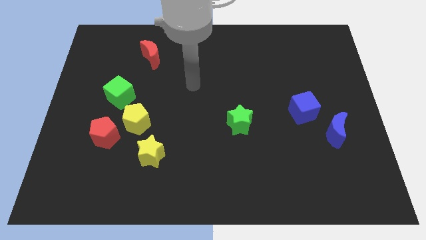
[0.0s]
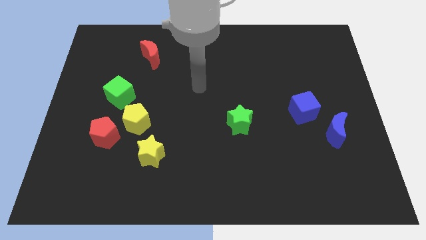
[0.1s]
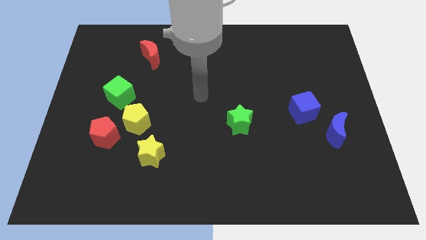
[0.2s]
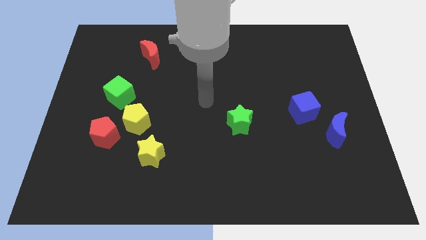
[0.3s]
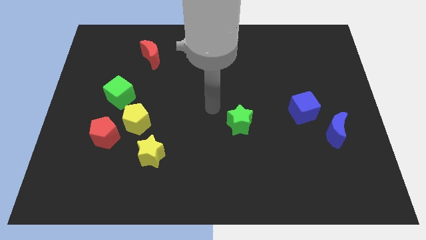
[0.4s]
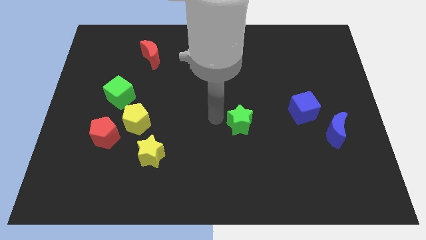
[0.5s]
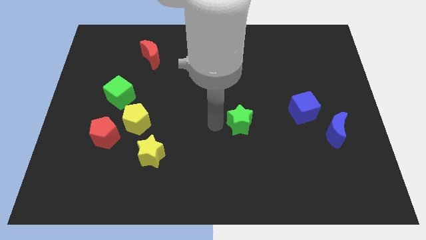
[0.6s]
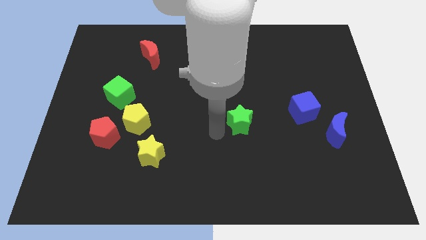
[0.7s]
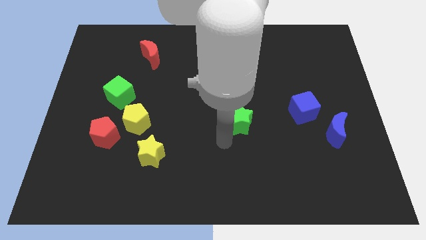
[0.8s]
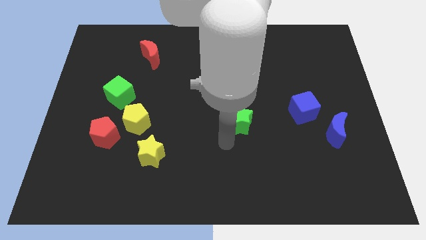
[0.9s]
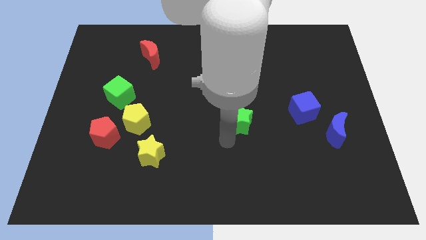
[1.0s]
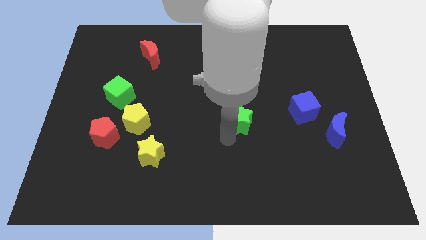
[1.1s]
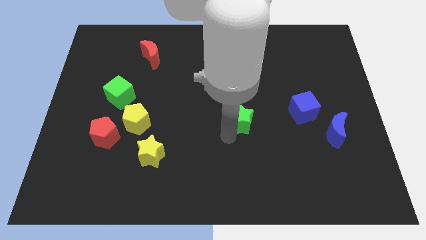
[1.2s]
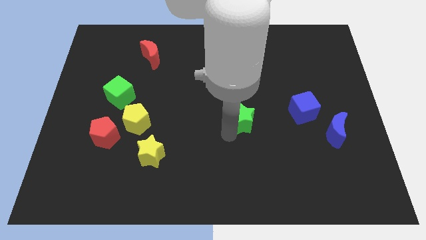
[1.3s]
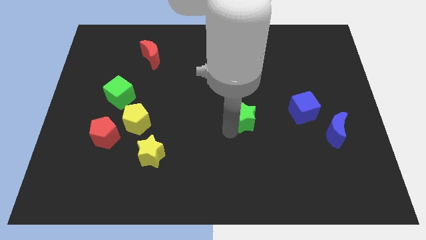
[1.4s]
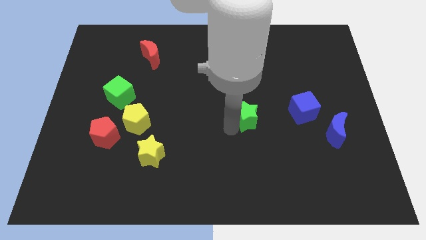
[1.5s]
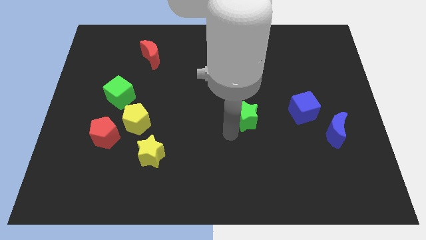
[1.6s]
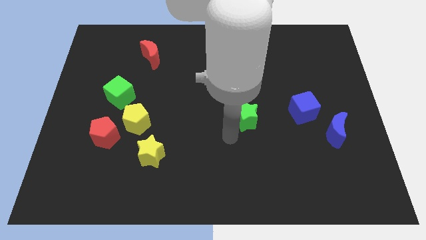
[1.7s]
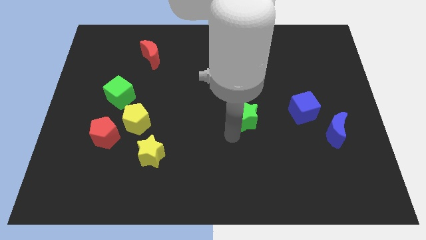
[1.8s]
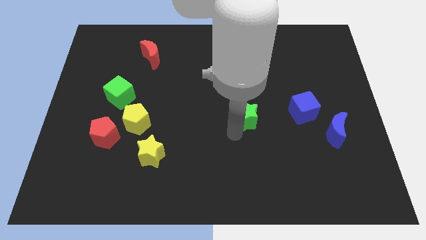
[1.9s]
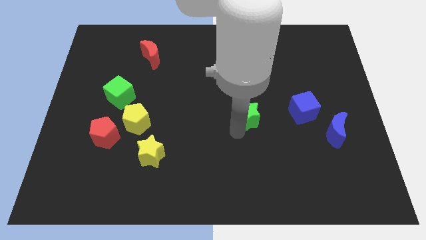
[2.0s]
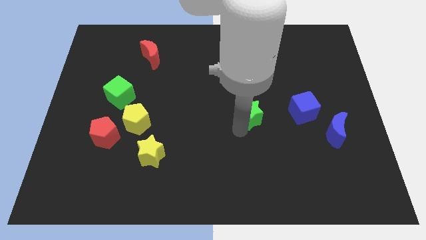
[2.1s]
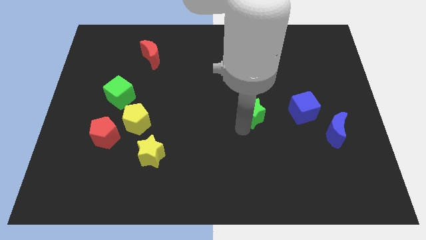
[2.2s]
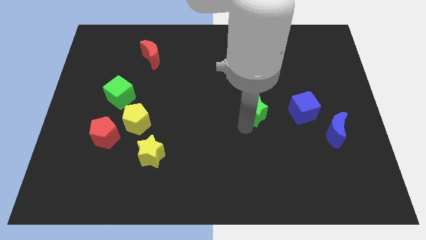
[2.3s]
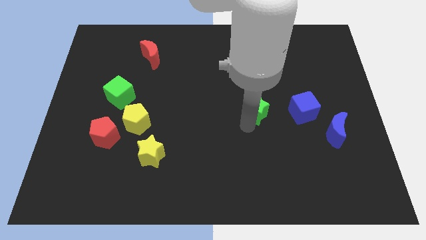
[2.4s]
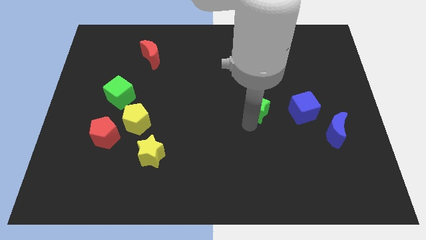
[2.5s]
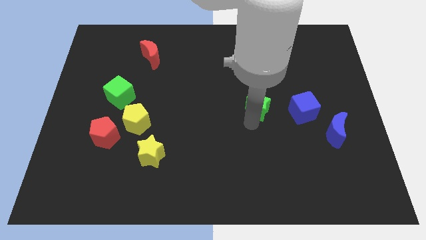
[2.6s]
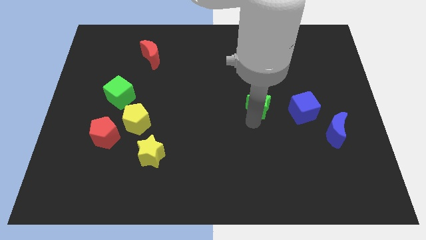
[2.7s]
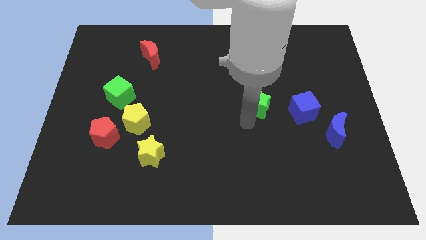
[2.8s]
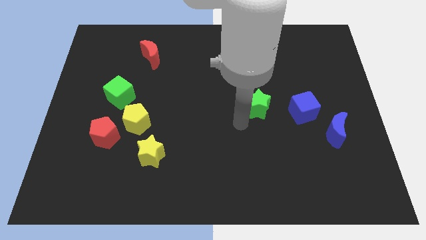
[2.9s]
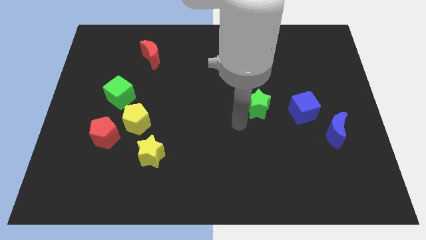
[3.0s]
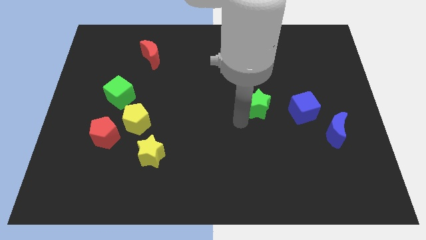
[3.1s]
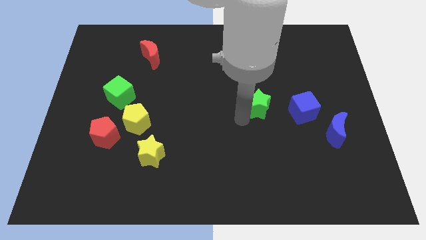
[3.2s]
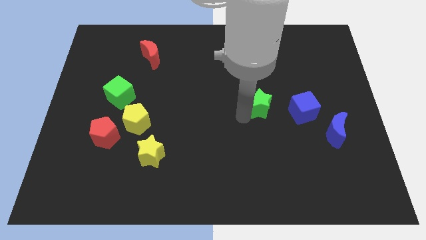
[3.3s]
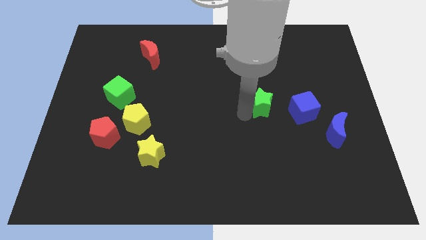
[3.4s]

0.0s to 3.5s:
slightly push the green star up and then to the right

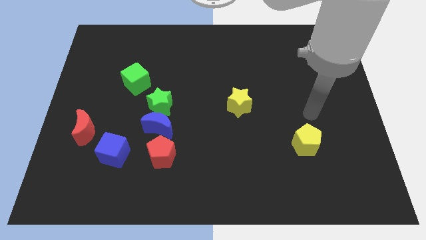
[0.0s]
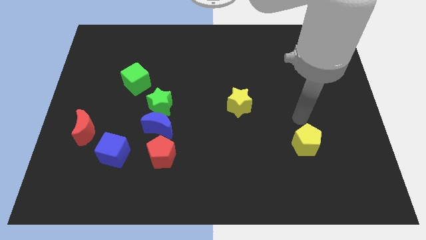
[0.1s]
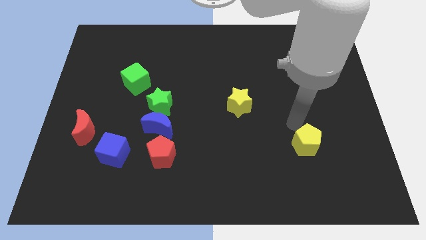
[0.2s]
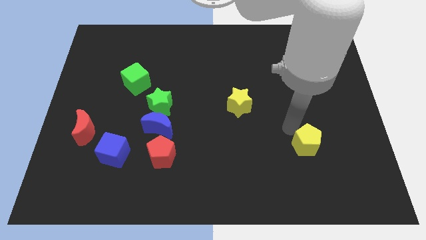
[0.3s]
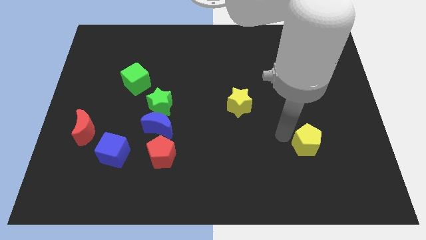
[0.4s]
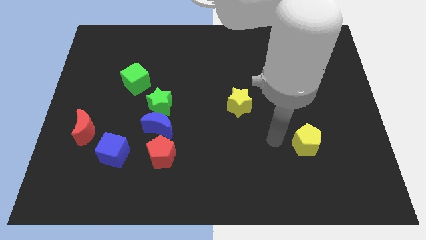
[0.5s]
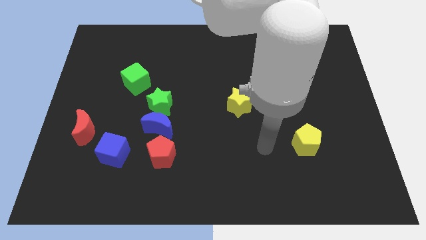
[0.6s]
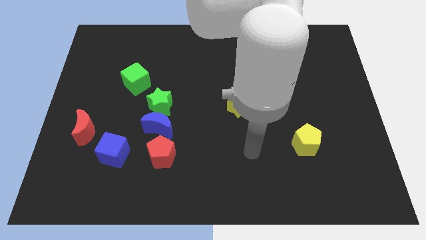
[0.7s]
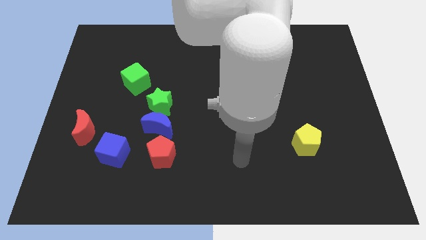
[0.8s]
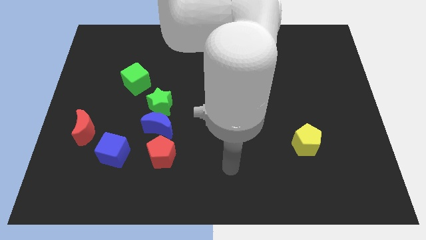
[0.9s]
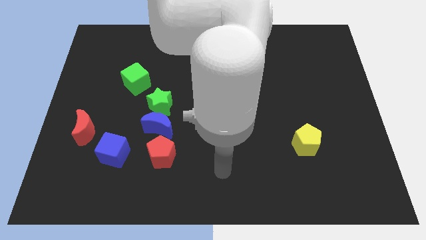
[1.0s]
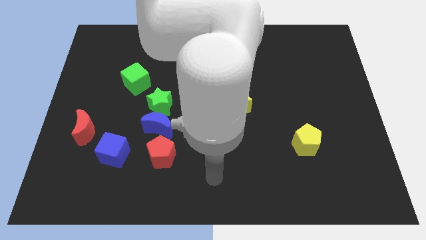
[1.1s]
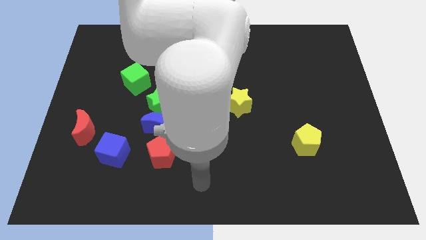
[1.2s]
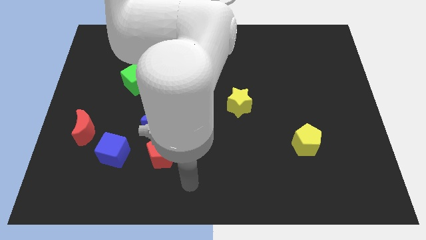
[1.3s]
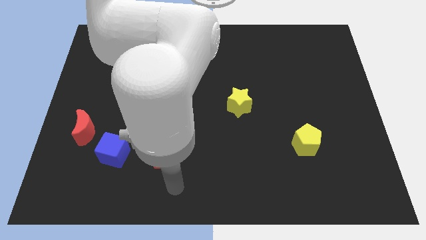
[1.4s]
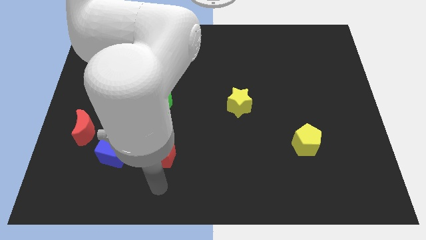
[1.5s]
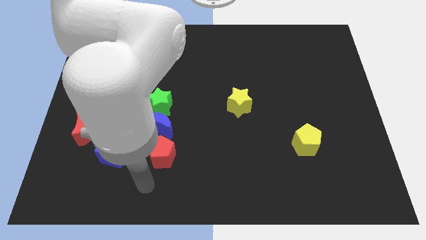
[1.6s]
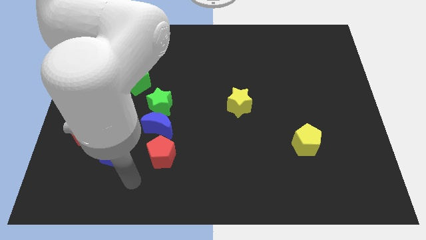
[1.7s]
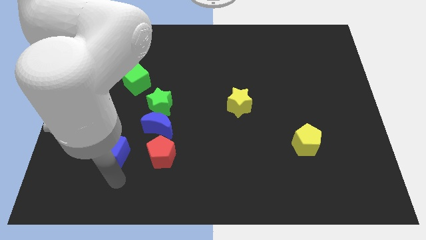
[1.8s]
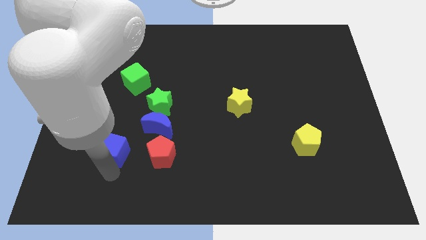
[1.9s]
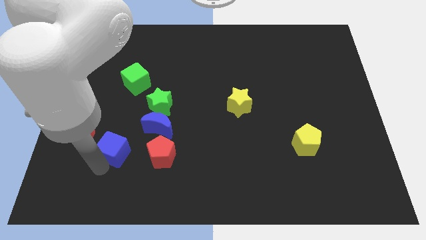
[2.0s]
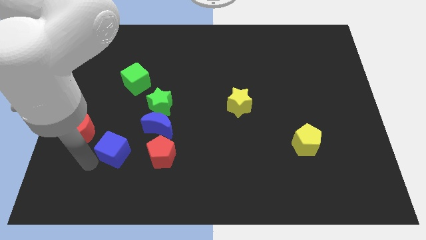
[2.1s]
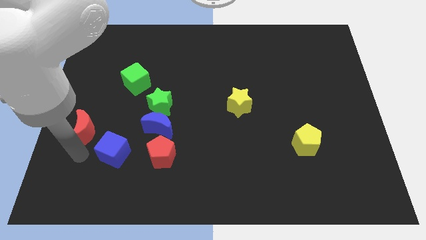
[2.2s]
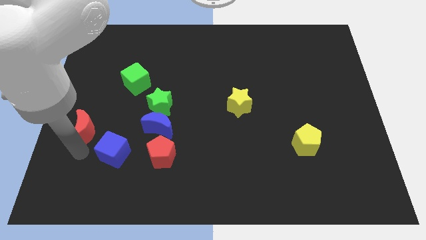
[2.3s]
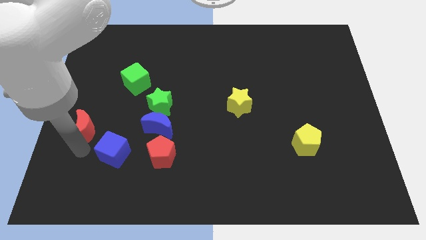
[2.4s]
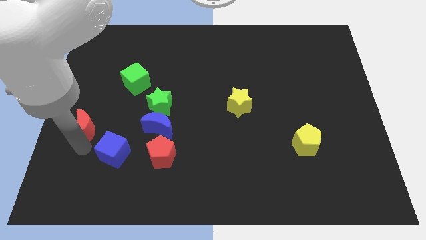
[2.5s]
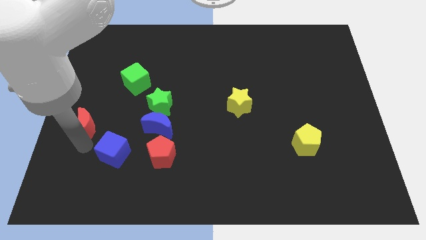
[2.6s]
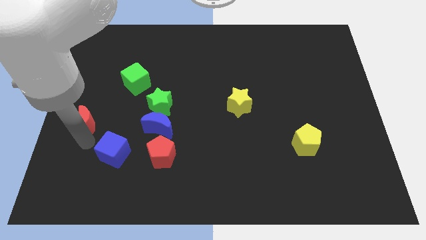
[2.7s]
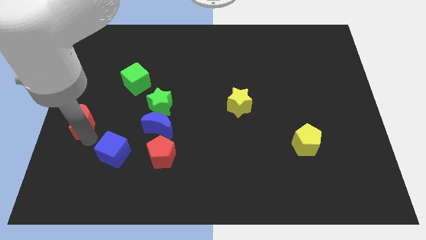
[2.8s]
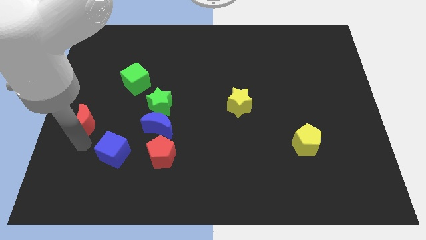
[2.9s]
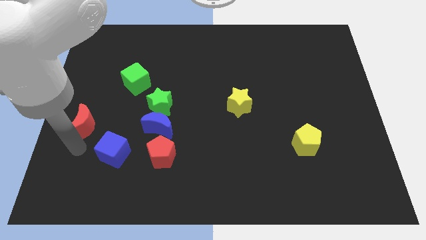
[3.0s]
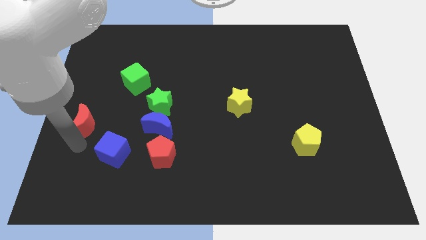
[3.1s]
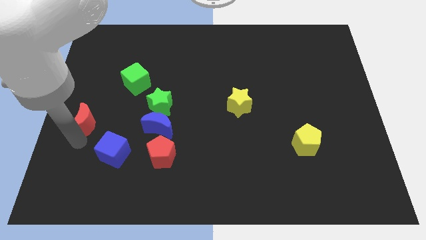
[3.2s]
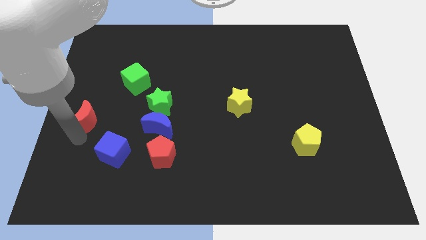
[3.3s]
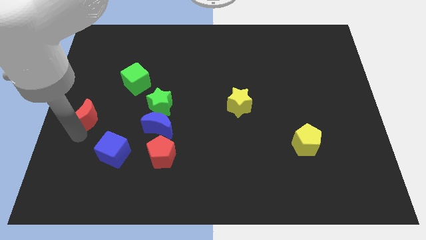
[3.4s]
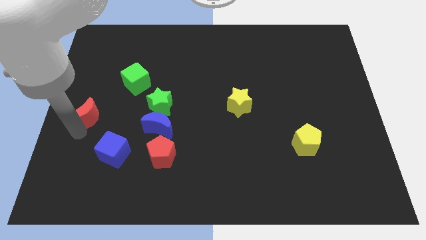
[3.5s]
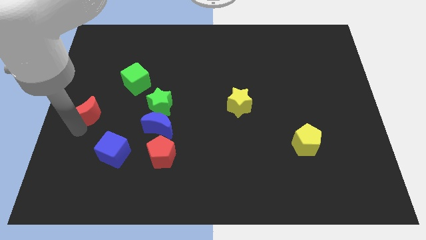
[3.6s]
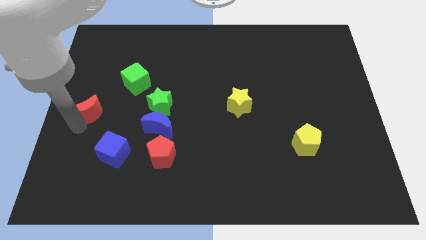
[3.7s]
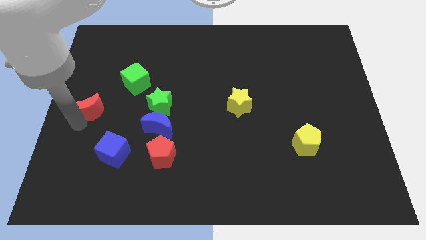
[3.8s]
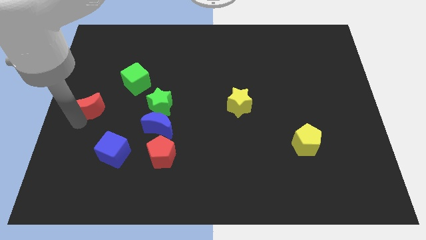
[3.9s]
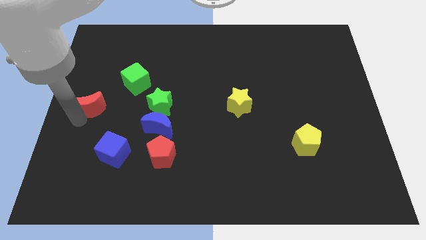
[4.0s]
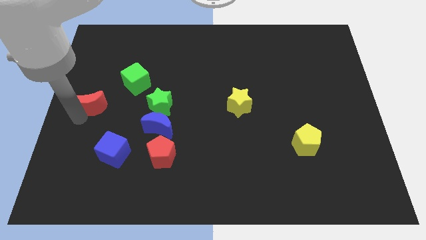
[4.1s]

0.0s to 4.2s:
push the red moon a little up

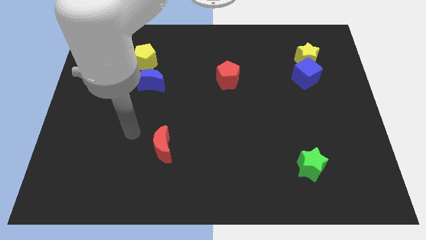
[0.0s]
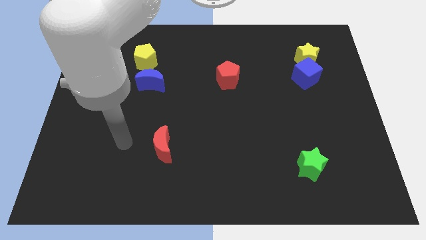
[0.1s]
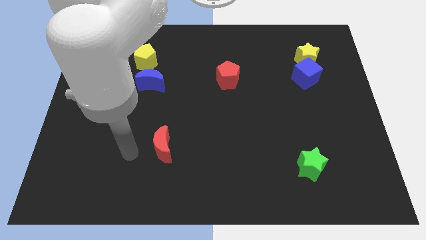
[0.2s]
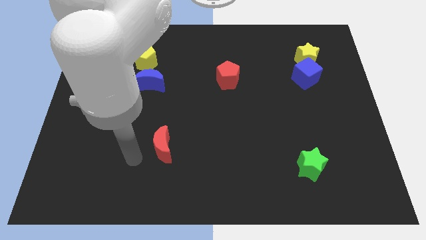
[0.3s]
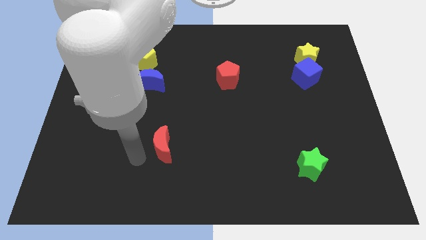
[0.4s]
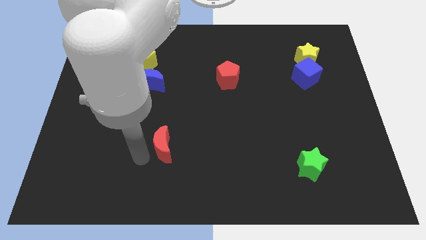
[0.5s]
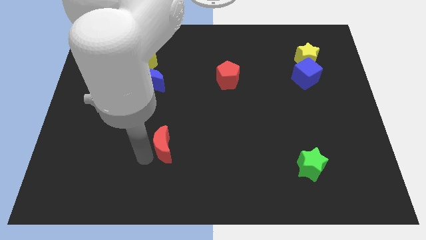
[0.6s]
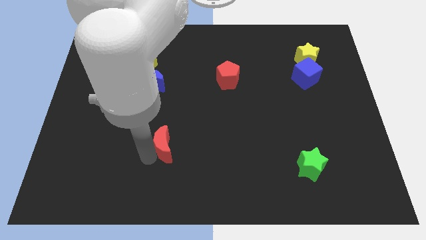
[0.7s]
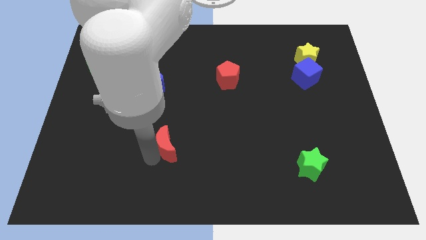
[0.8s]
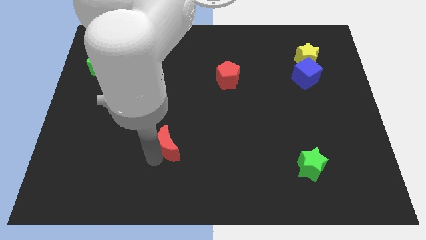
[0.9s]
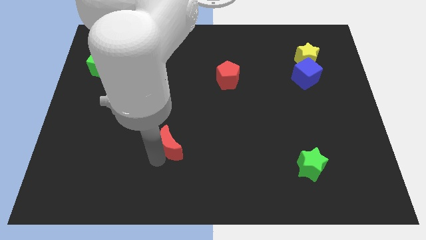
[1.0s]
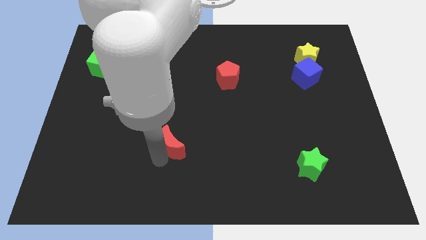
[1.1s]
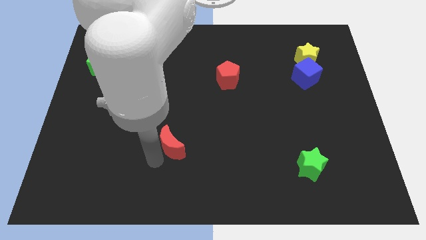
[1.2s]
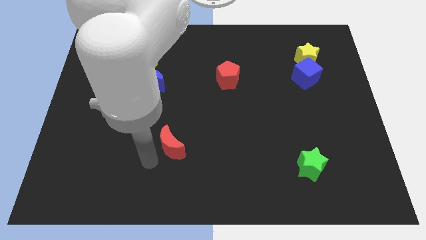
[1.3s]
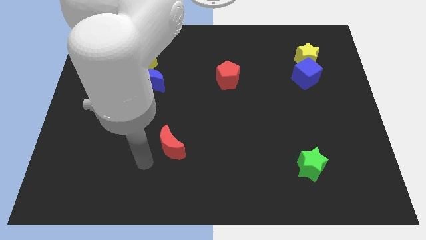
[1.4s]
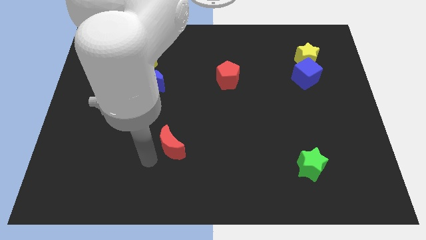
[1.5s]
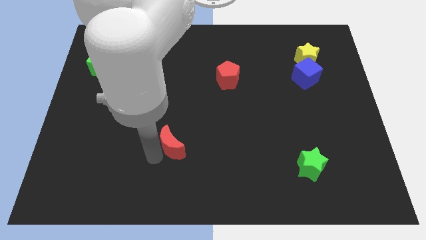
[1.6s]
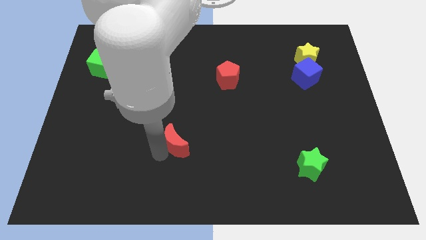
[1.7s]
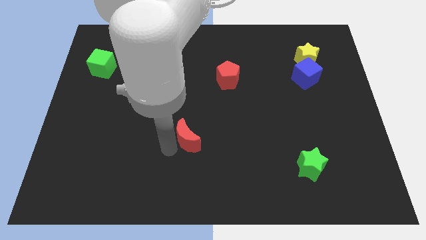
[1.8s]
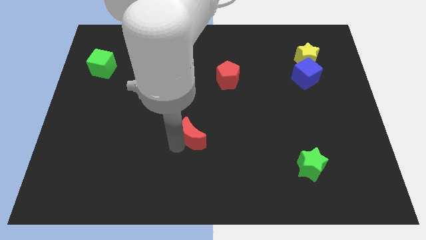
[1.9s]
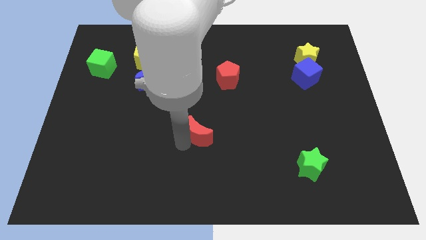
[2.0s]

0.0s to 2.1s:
move the red moon up and then right a bit
